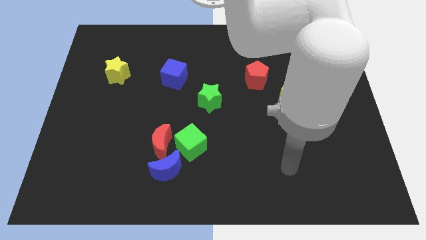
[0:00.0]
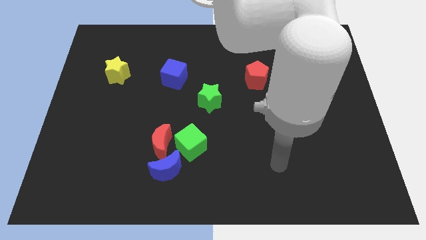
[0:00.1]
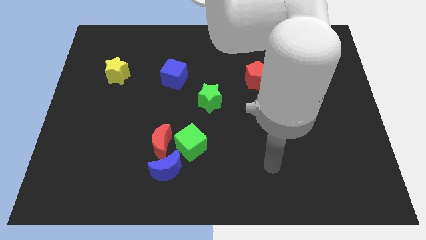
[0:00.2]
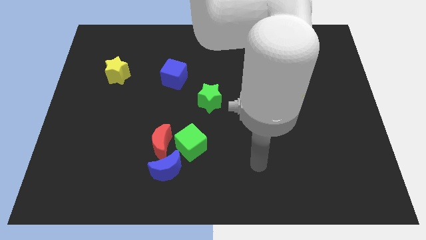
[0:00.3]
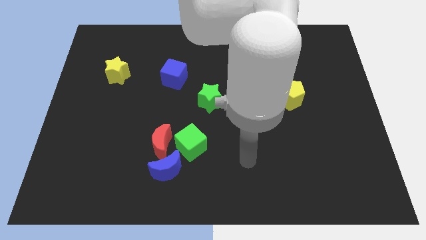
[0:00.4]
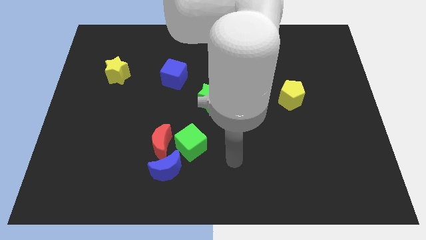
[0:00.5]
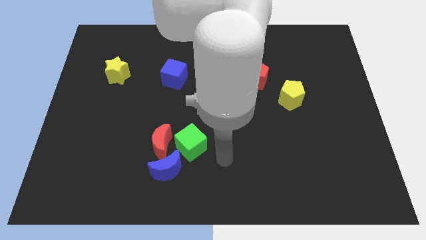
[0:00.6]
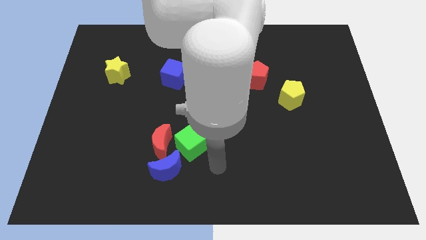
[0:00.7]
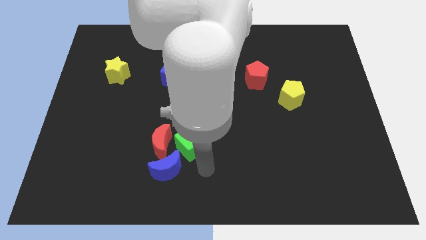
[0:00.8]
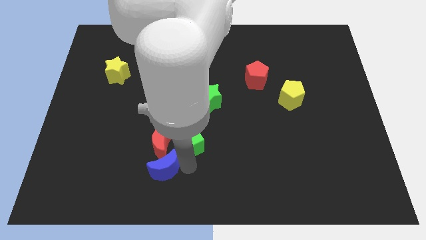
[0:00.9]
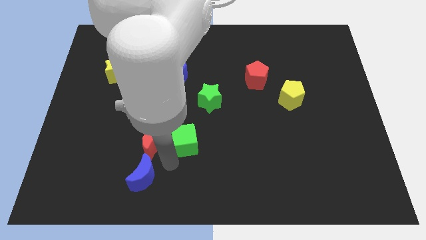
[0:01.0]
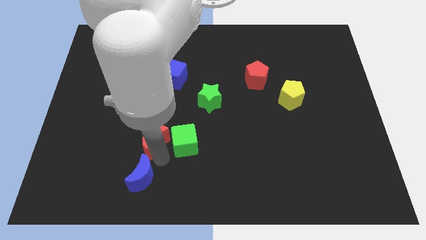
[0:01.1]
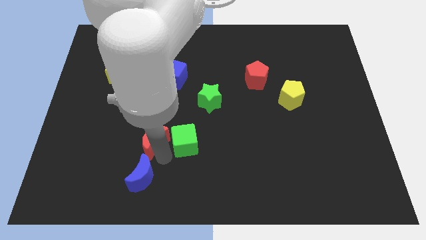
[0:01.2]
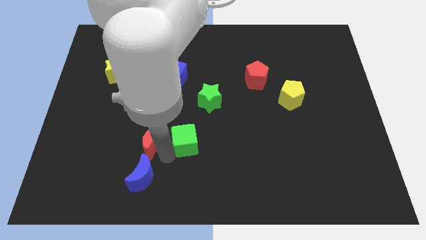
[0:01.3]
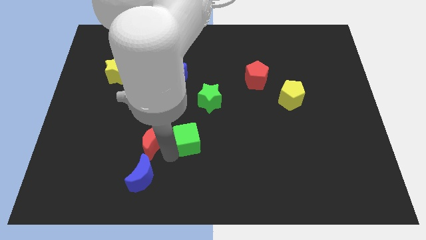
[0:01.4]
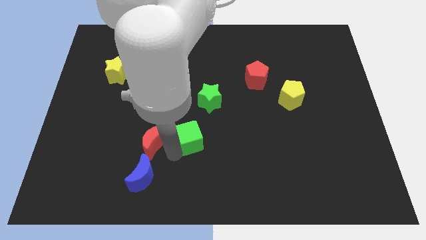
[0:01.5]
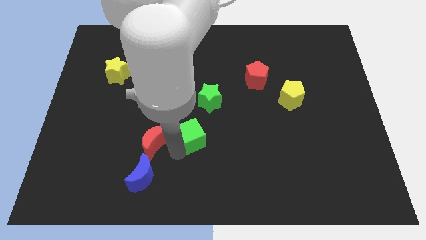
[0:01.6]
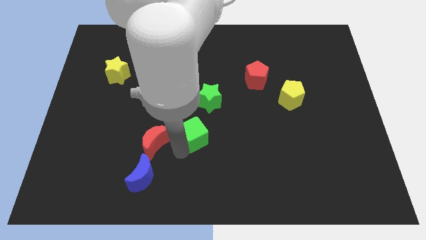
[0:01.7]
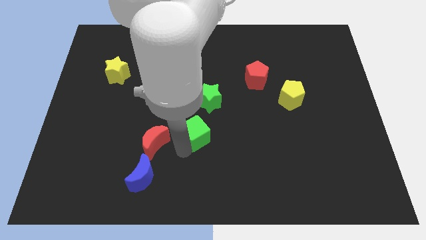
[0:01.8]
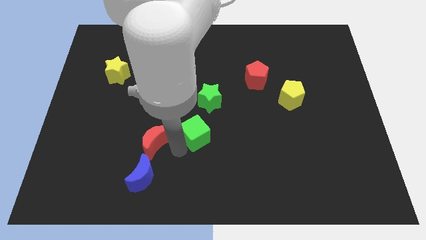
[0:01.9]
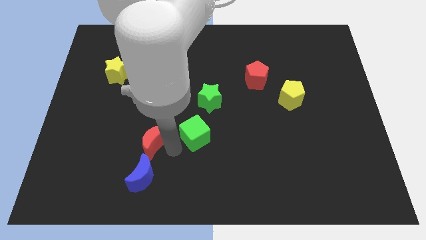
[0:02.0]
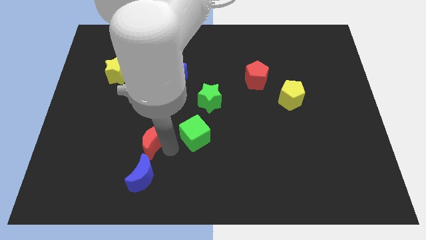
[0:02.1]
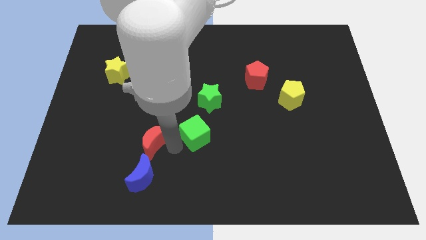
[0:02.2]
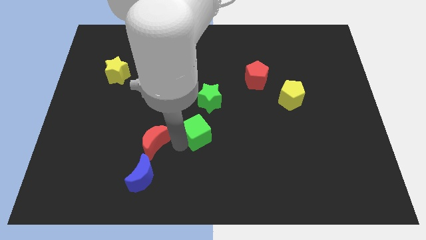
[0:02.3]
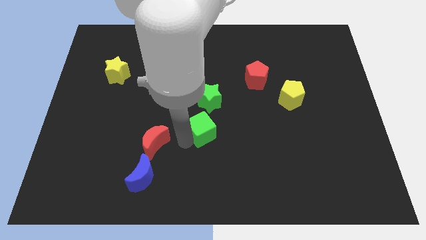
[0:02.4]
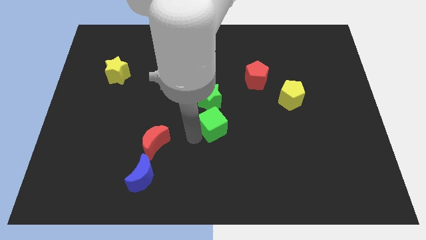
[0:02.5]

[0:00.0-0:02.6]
slide the green cube somewhat upwards and to the right

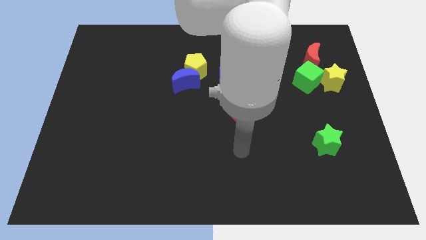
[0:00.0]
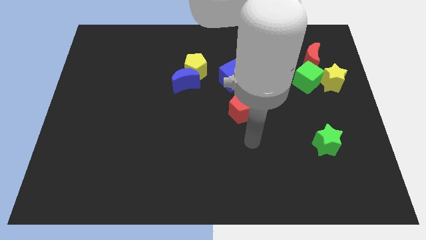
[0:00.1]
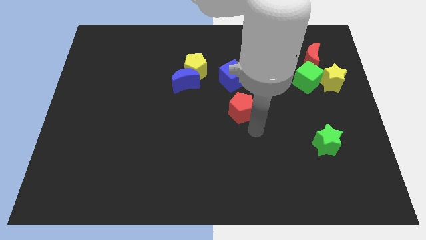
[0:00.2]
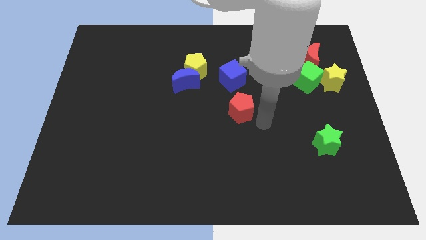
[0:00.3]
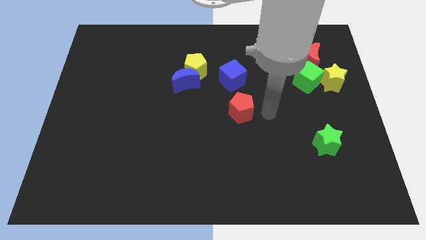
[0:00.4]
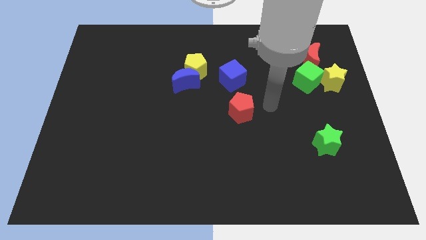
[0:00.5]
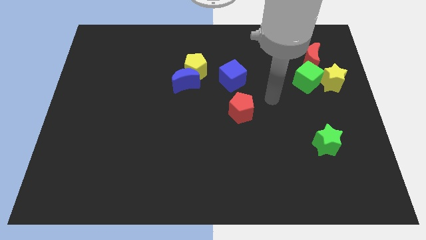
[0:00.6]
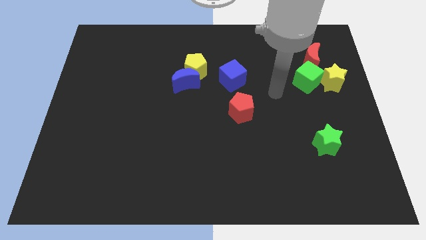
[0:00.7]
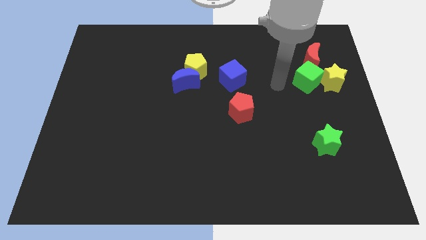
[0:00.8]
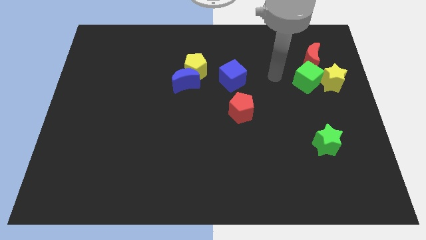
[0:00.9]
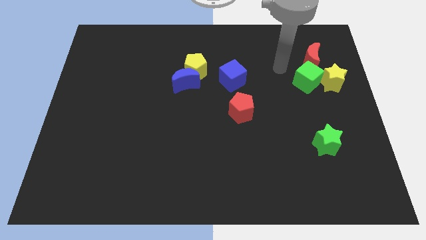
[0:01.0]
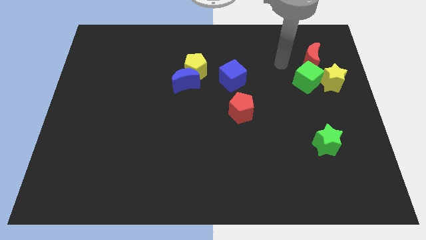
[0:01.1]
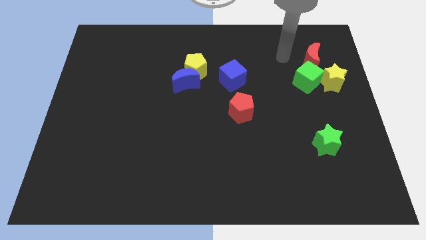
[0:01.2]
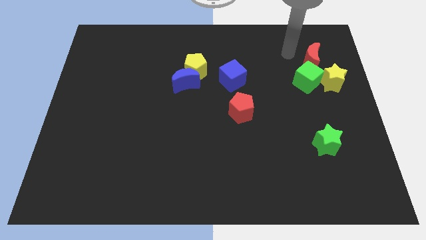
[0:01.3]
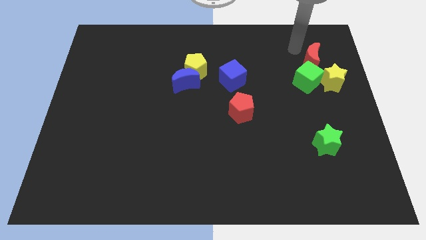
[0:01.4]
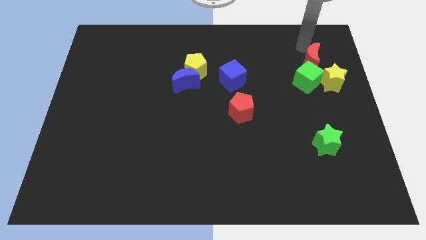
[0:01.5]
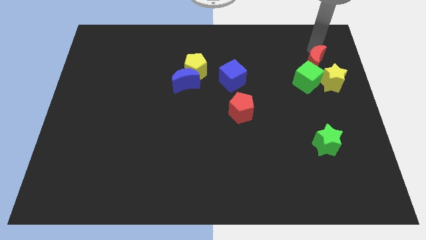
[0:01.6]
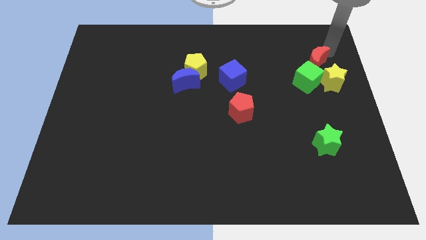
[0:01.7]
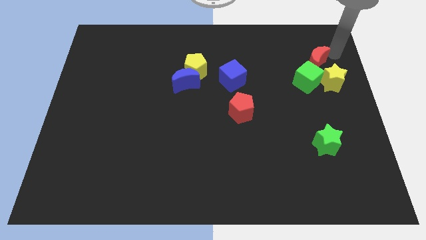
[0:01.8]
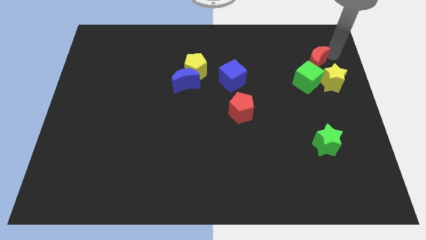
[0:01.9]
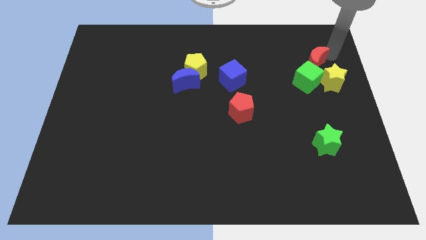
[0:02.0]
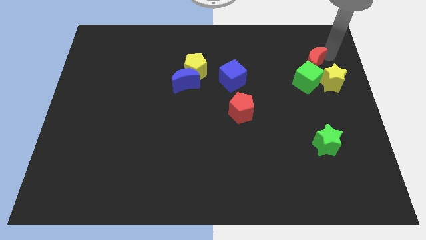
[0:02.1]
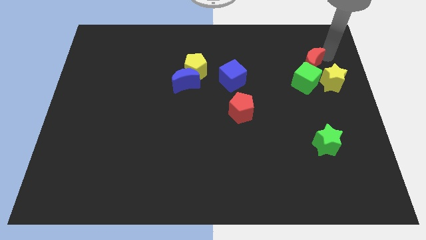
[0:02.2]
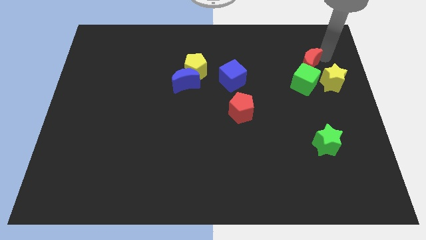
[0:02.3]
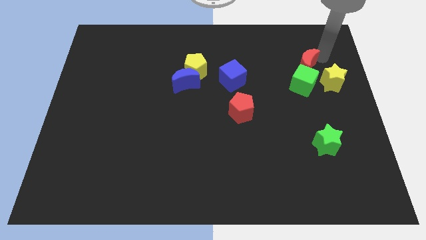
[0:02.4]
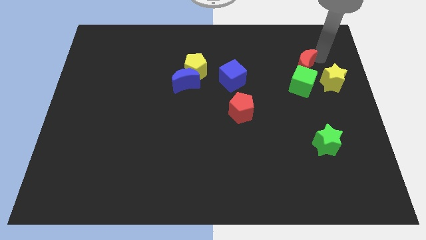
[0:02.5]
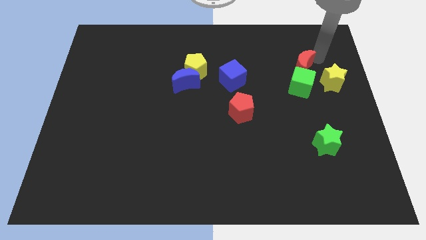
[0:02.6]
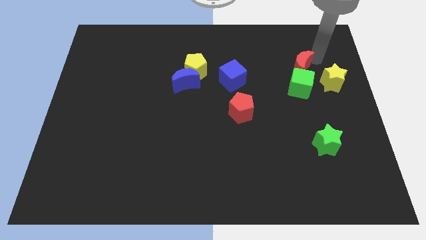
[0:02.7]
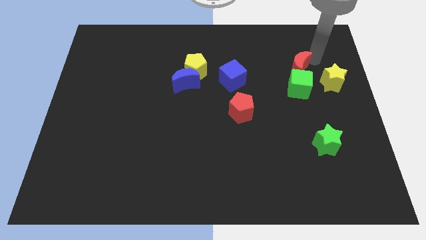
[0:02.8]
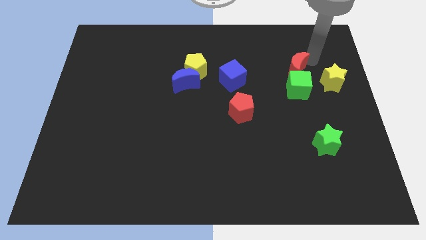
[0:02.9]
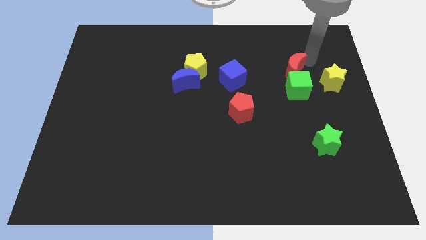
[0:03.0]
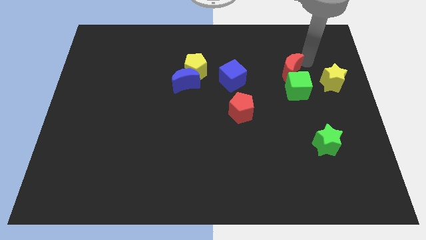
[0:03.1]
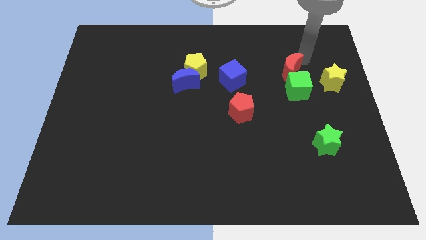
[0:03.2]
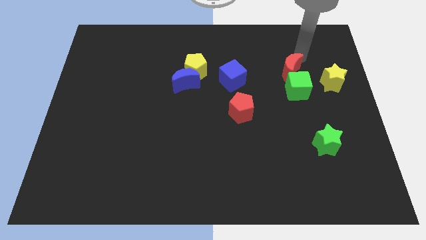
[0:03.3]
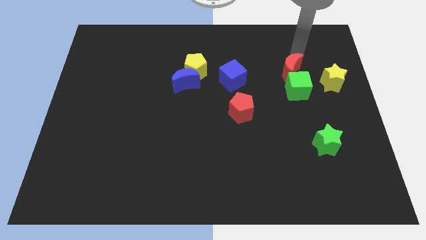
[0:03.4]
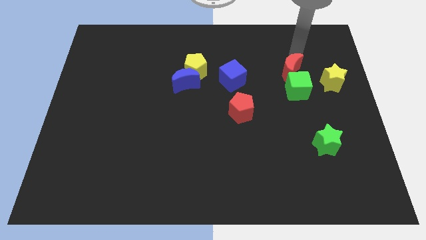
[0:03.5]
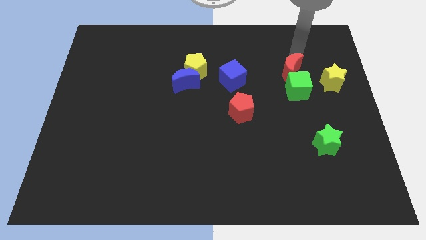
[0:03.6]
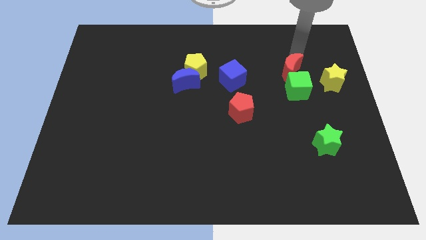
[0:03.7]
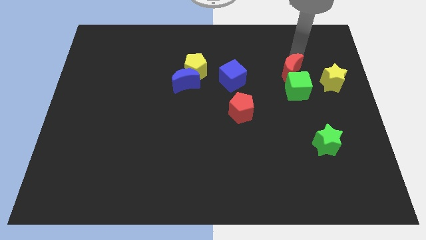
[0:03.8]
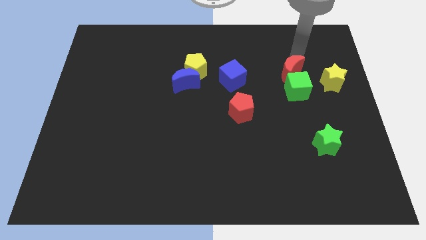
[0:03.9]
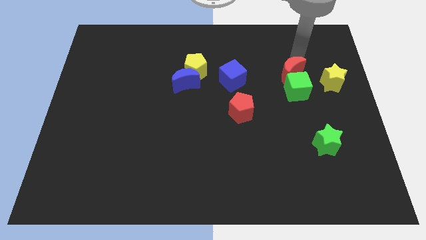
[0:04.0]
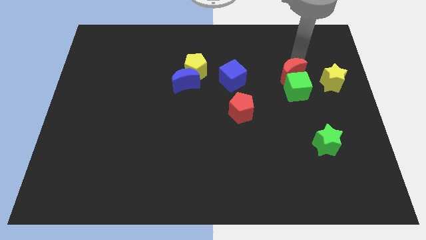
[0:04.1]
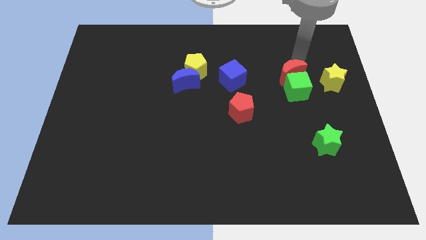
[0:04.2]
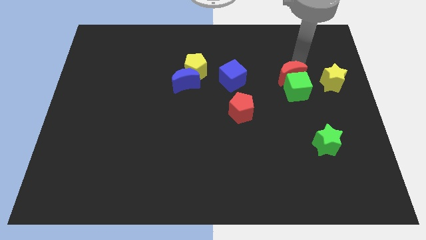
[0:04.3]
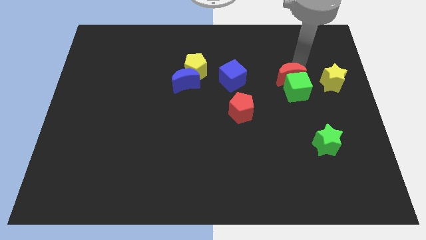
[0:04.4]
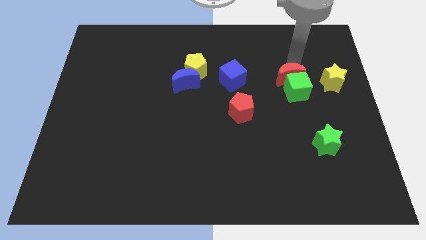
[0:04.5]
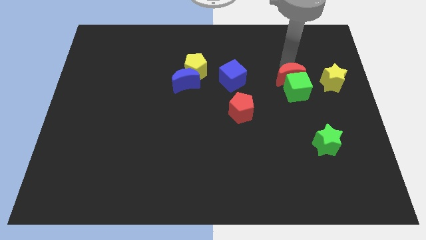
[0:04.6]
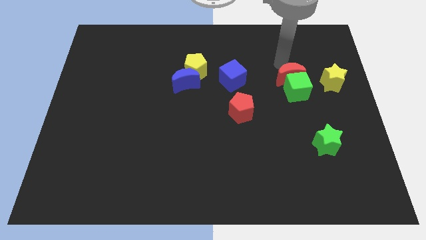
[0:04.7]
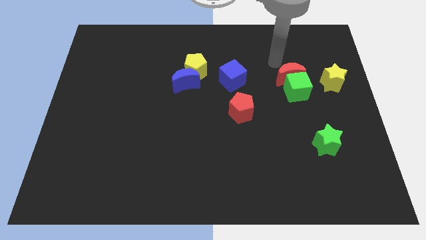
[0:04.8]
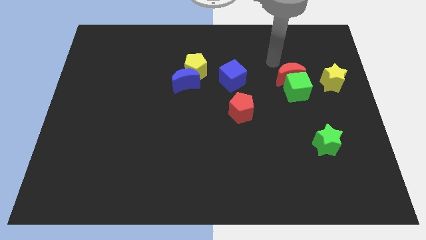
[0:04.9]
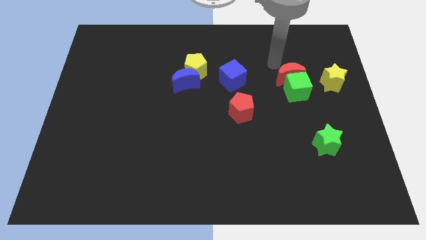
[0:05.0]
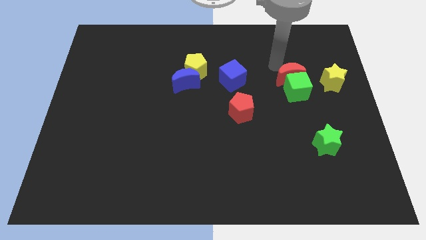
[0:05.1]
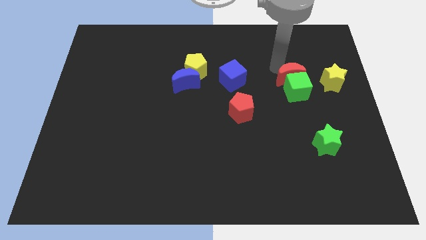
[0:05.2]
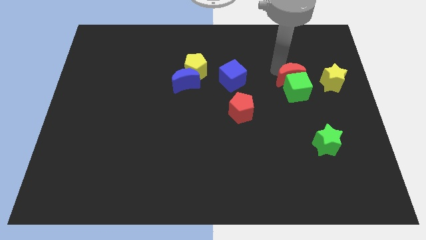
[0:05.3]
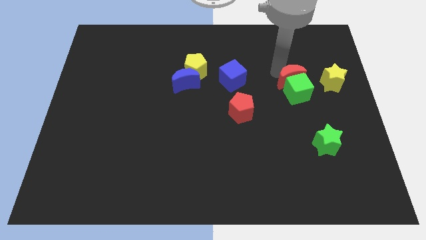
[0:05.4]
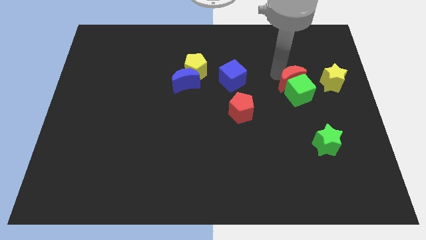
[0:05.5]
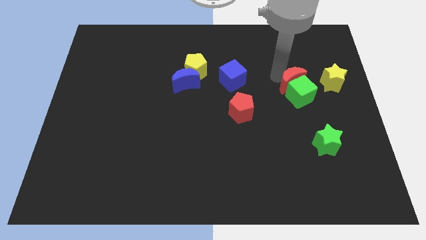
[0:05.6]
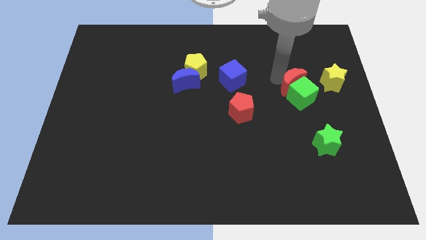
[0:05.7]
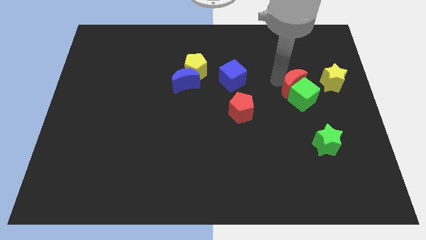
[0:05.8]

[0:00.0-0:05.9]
push the red moon downwards slightly
